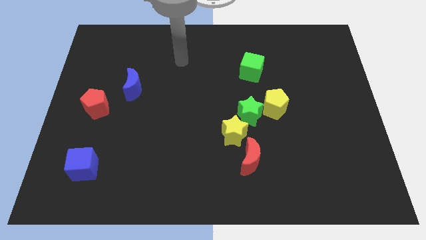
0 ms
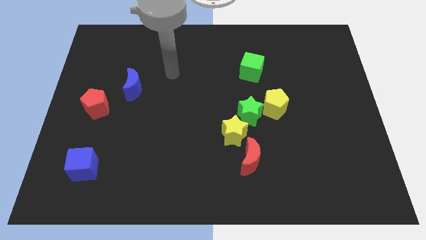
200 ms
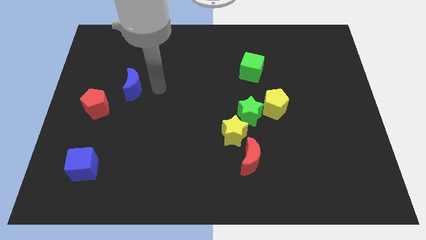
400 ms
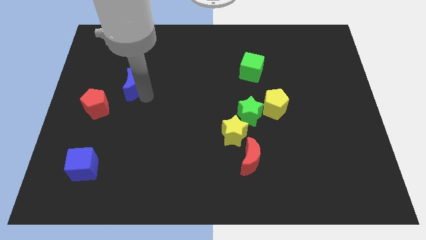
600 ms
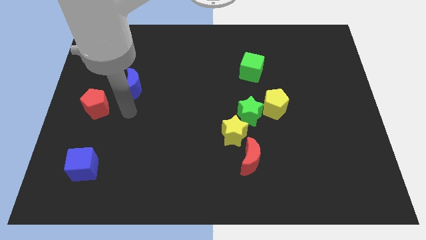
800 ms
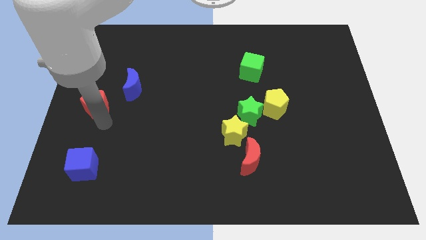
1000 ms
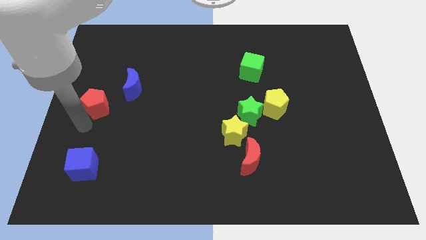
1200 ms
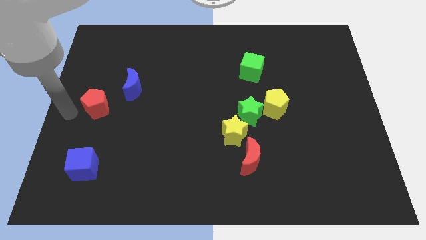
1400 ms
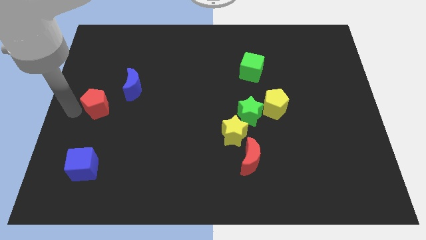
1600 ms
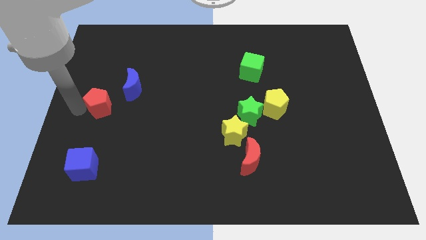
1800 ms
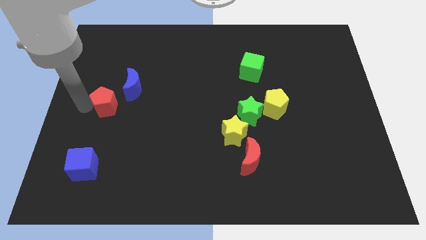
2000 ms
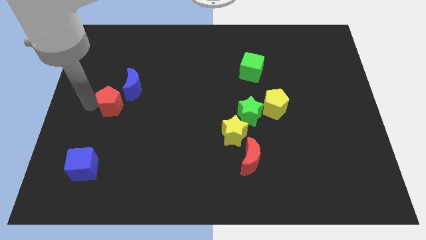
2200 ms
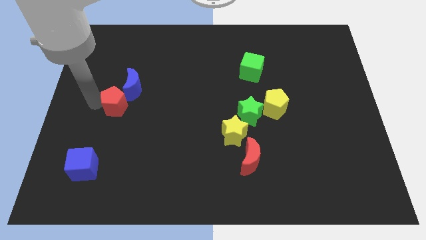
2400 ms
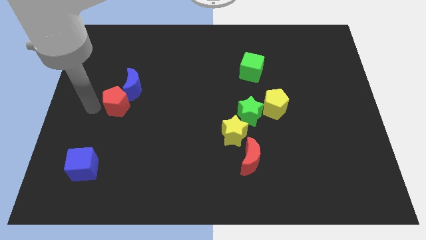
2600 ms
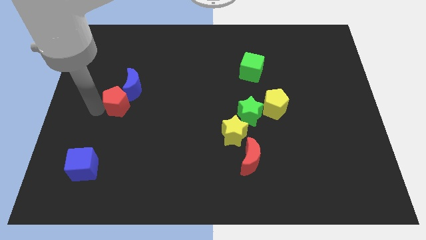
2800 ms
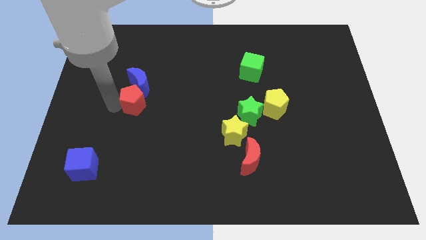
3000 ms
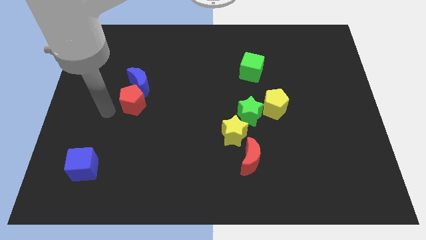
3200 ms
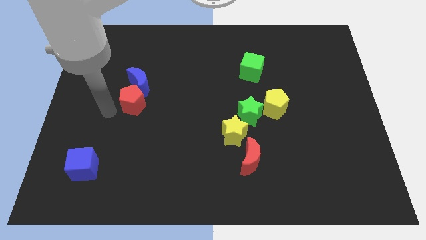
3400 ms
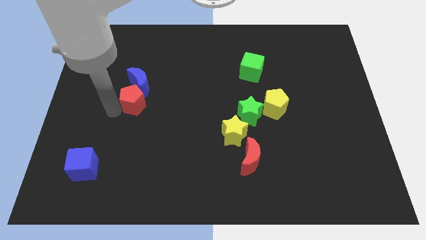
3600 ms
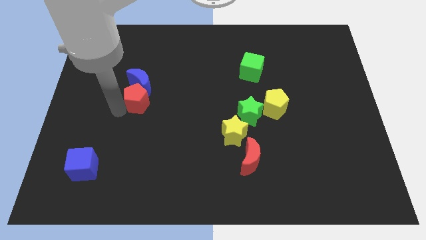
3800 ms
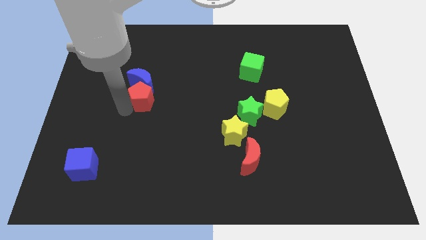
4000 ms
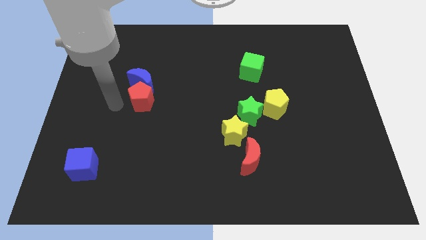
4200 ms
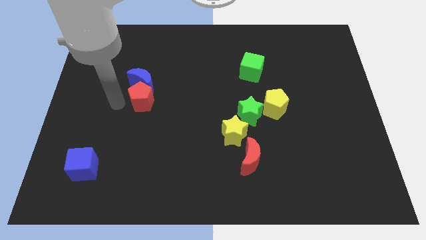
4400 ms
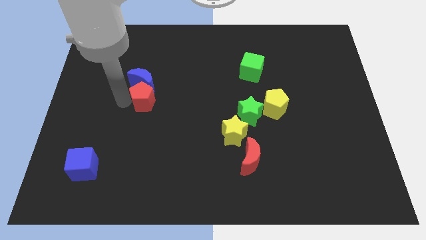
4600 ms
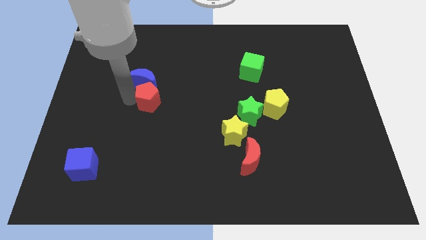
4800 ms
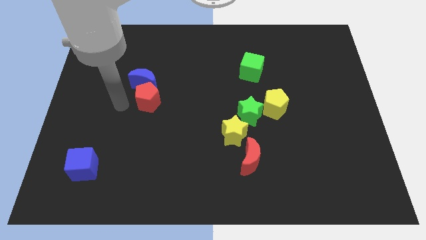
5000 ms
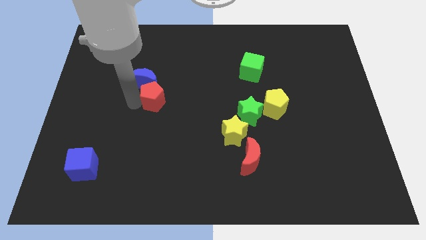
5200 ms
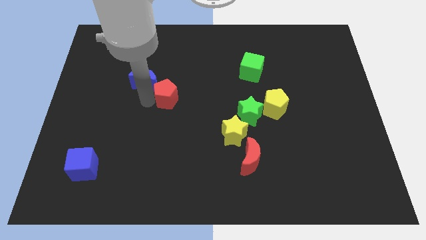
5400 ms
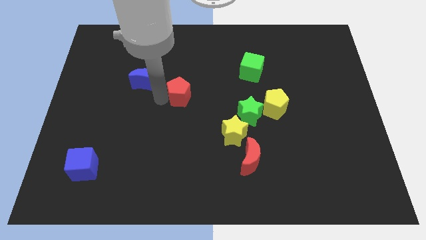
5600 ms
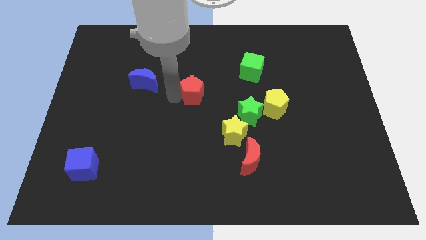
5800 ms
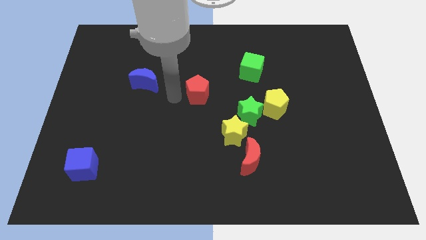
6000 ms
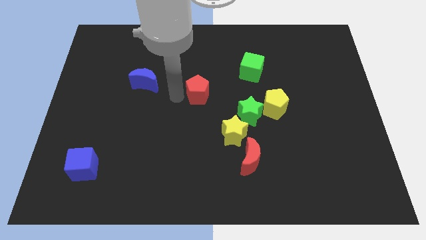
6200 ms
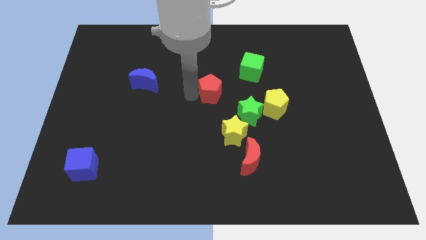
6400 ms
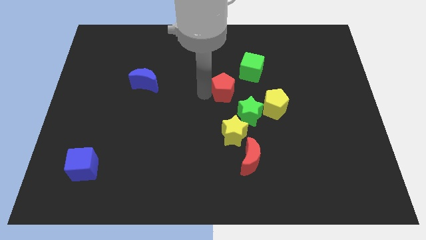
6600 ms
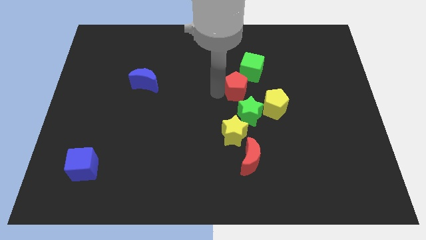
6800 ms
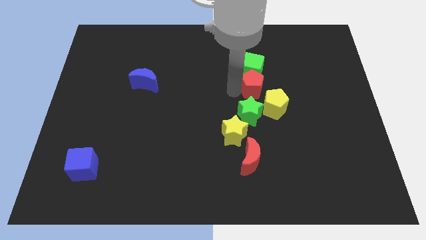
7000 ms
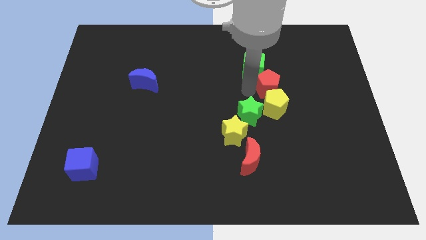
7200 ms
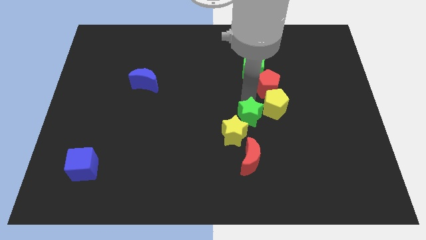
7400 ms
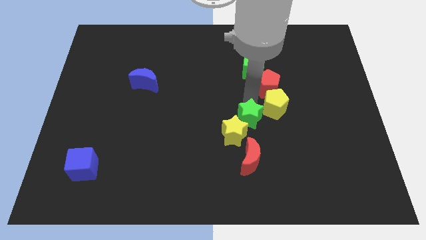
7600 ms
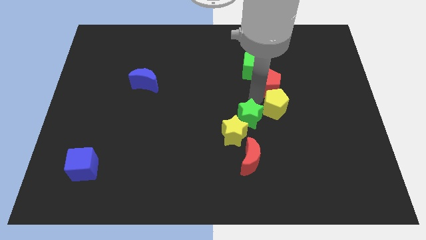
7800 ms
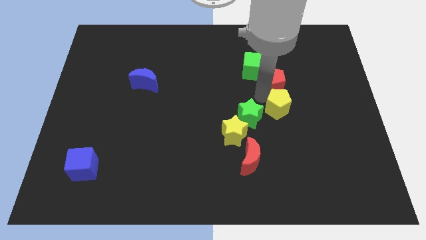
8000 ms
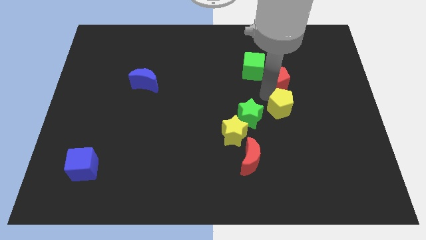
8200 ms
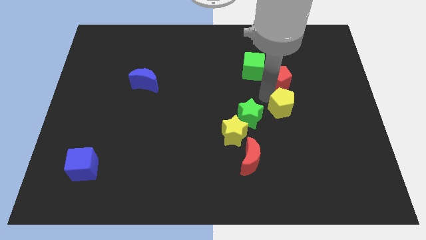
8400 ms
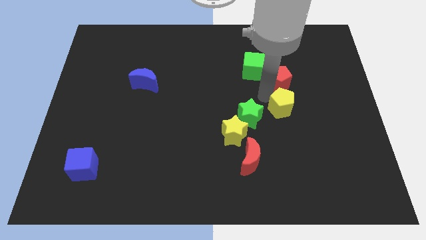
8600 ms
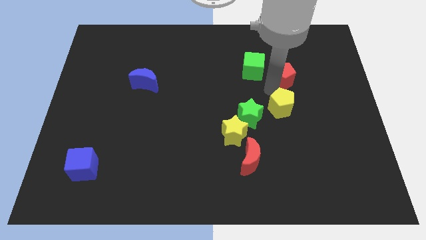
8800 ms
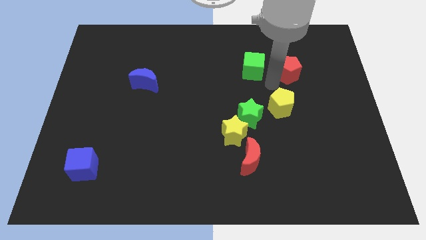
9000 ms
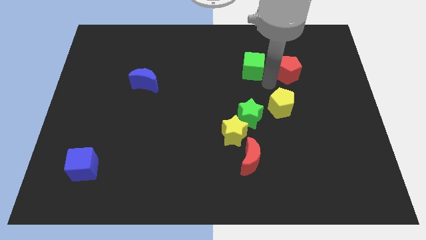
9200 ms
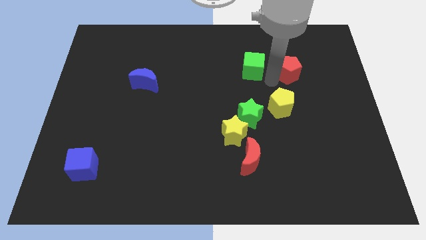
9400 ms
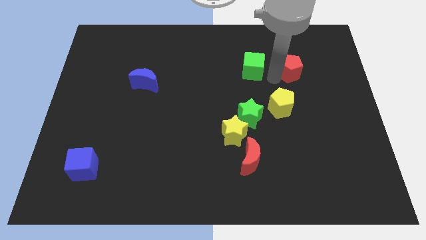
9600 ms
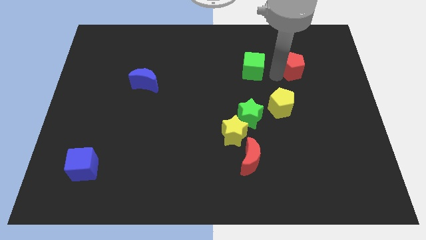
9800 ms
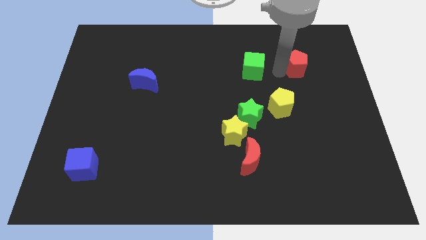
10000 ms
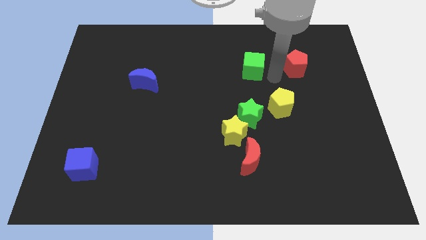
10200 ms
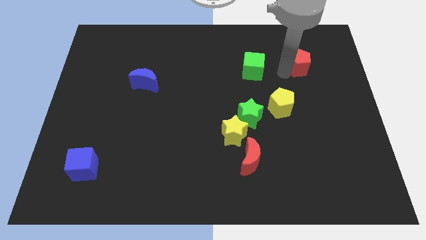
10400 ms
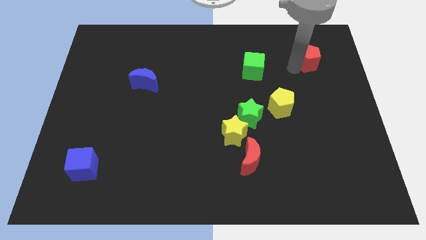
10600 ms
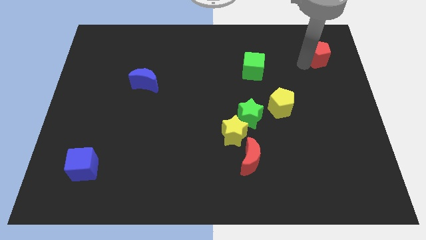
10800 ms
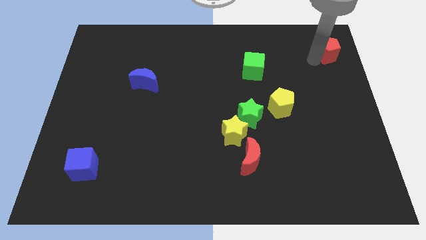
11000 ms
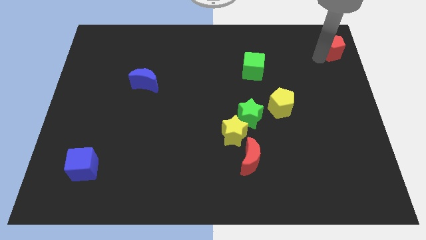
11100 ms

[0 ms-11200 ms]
move the red pentagon to the top right of the board

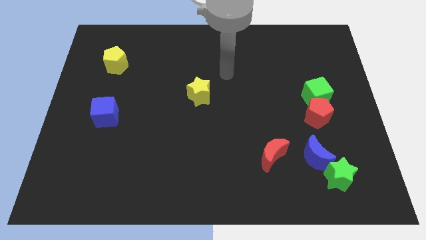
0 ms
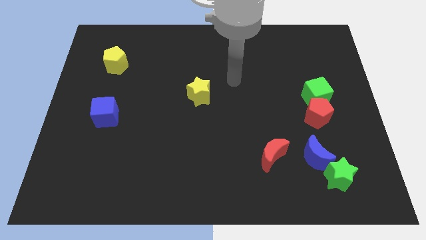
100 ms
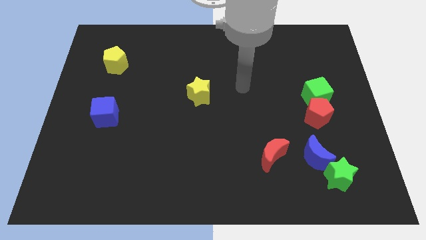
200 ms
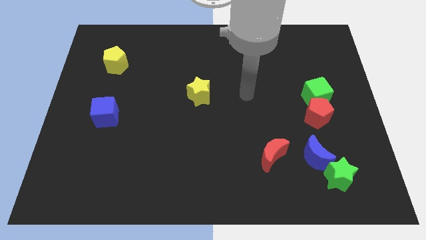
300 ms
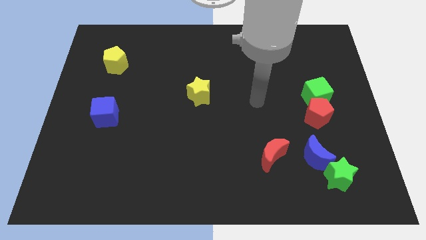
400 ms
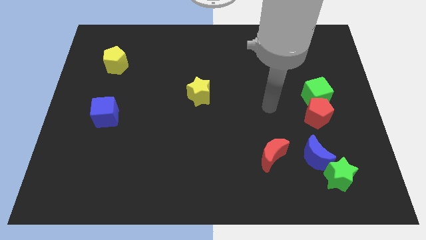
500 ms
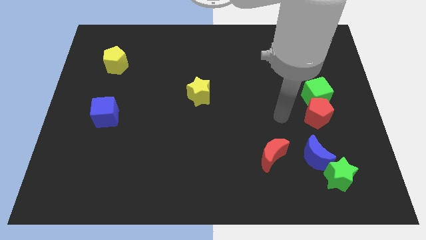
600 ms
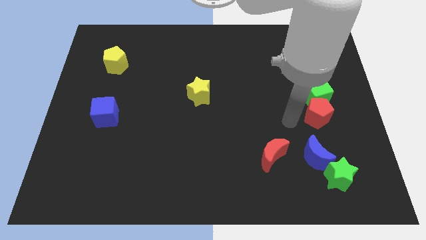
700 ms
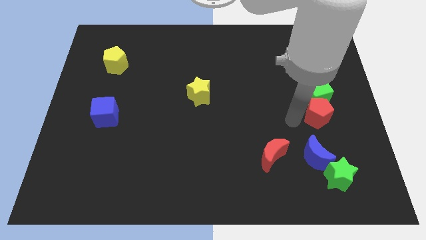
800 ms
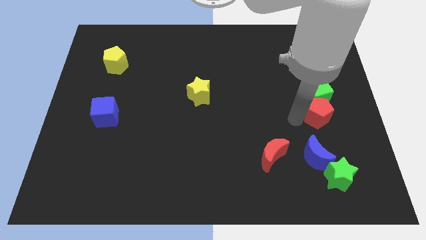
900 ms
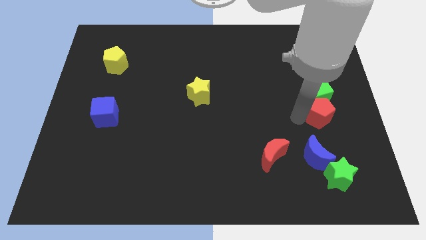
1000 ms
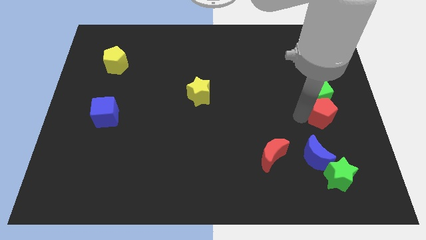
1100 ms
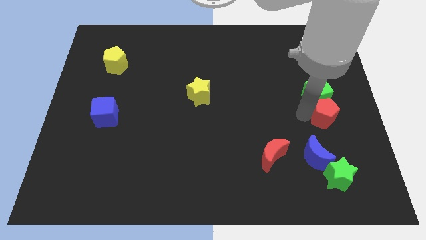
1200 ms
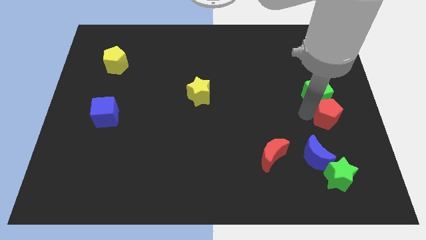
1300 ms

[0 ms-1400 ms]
push the red pentagon to the right side
